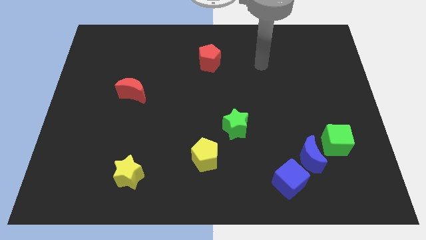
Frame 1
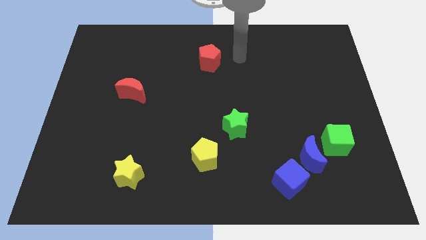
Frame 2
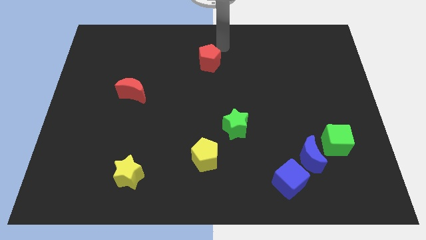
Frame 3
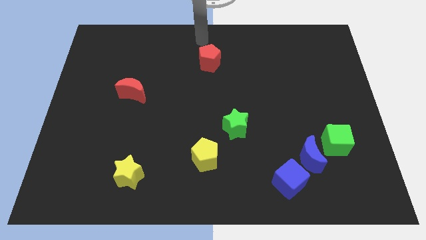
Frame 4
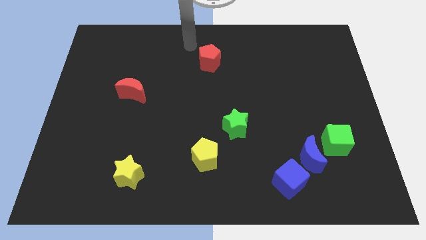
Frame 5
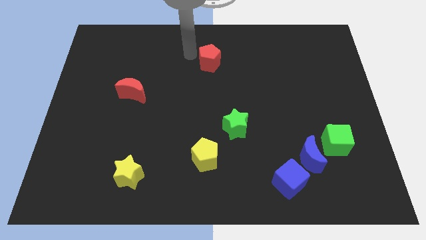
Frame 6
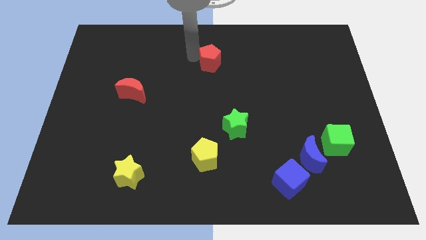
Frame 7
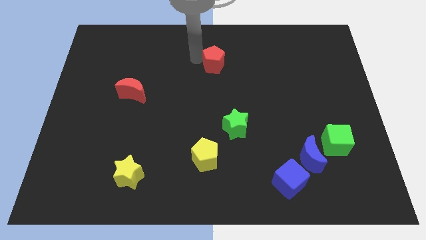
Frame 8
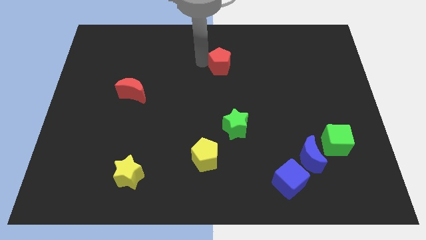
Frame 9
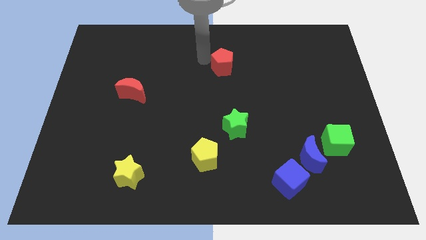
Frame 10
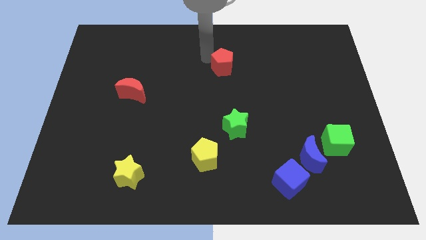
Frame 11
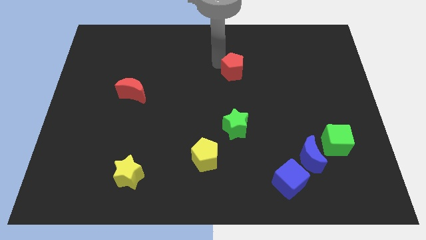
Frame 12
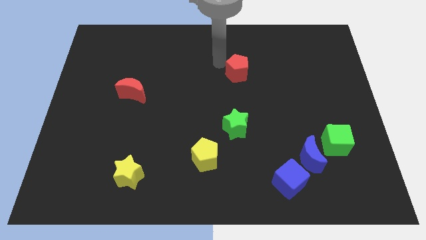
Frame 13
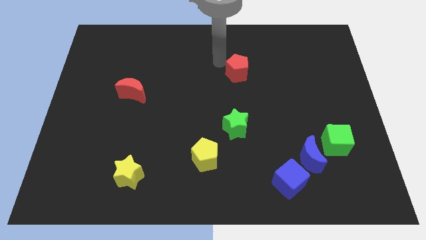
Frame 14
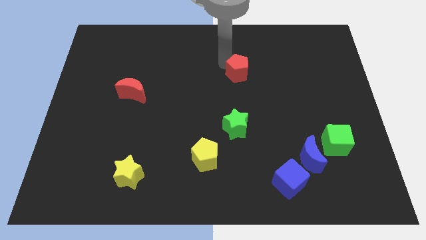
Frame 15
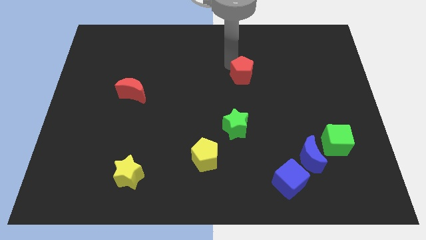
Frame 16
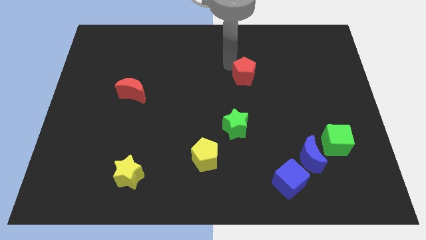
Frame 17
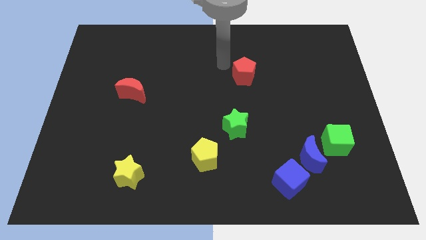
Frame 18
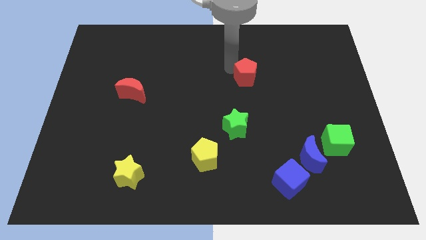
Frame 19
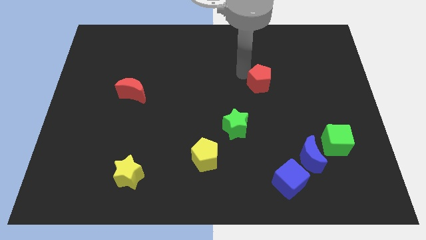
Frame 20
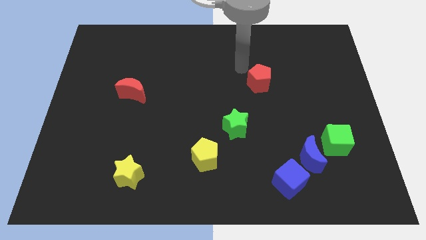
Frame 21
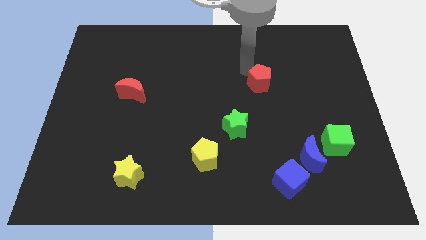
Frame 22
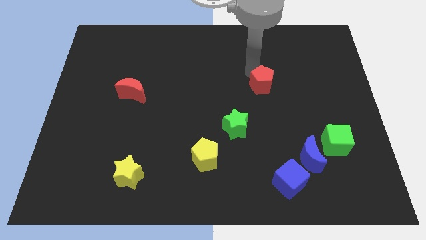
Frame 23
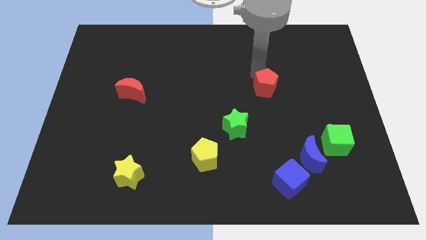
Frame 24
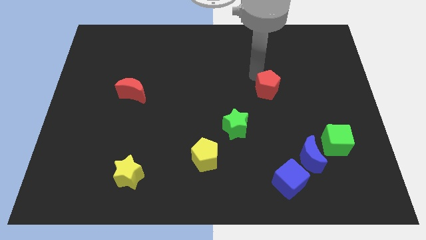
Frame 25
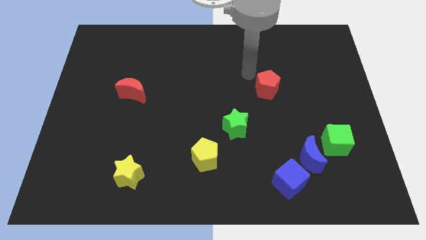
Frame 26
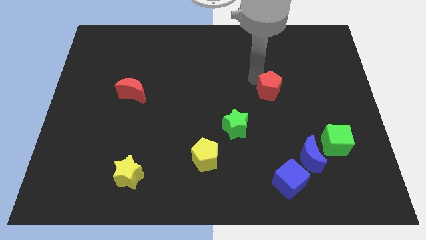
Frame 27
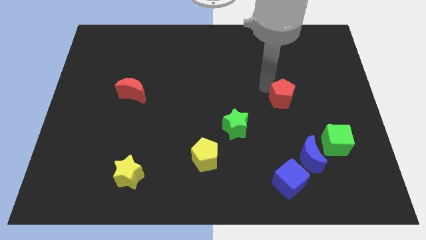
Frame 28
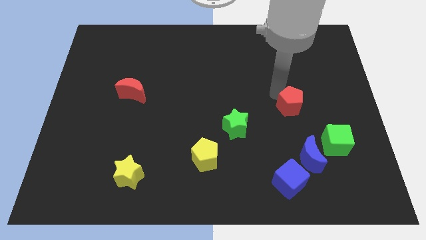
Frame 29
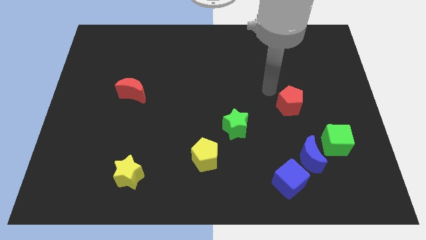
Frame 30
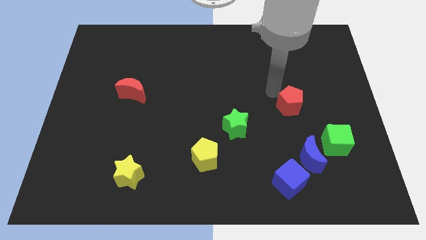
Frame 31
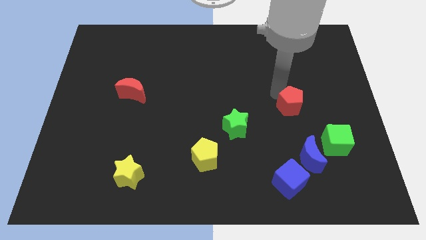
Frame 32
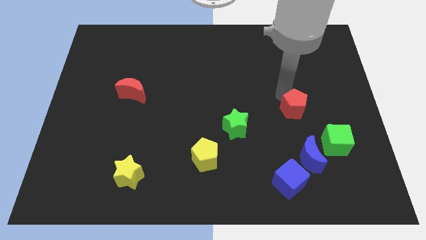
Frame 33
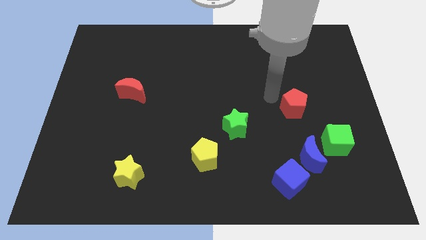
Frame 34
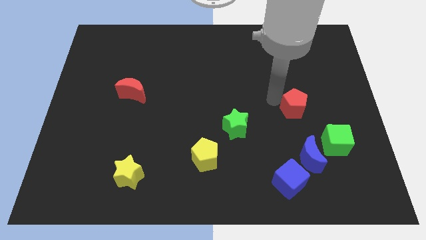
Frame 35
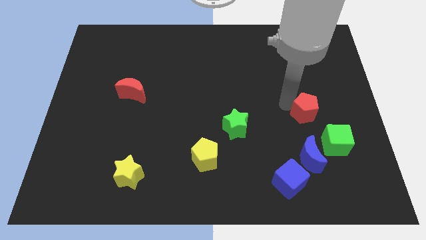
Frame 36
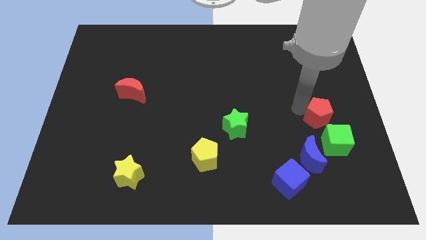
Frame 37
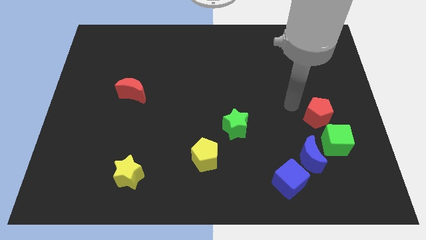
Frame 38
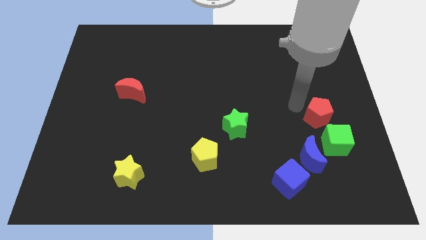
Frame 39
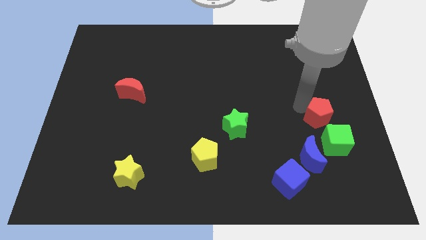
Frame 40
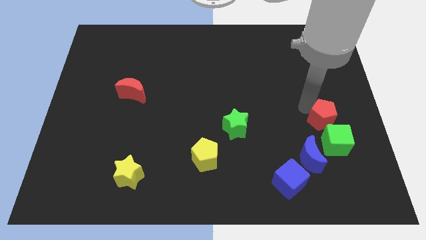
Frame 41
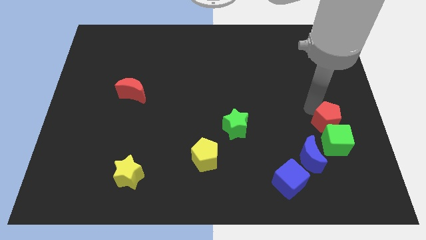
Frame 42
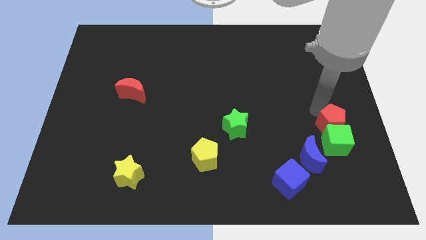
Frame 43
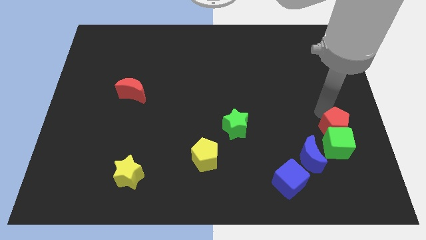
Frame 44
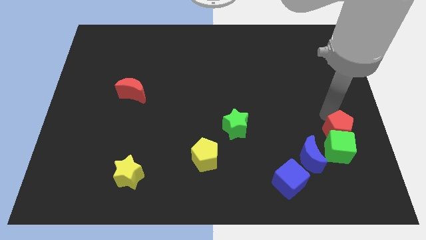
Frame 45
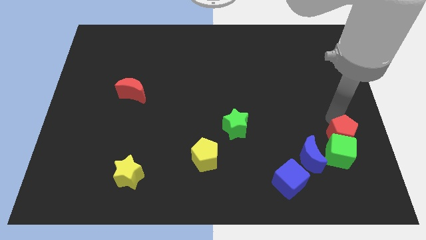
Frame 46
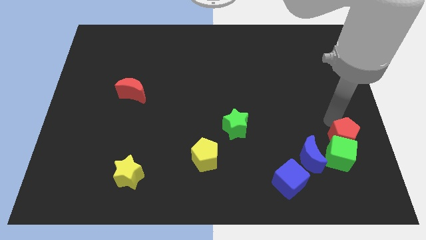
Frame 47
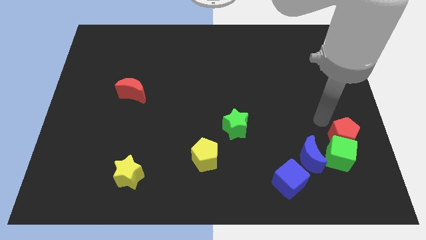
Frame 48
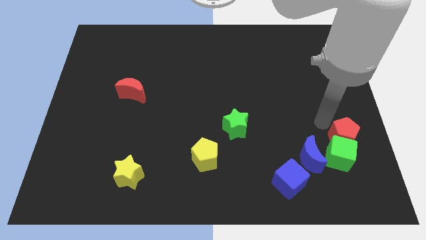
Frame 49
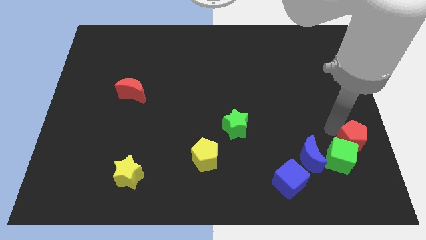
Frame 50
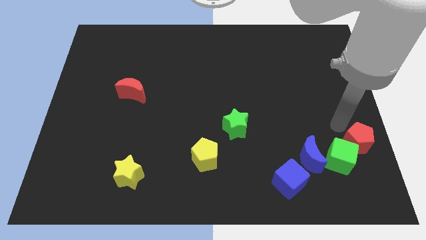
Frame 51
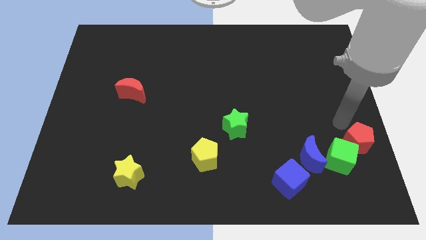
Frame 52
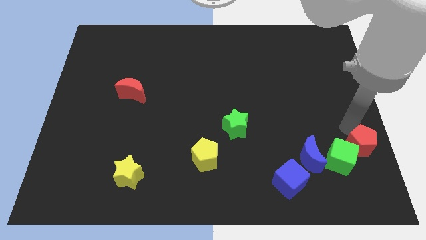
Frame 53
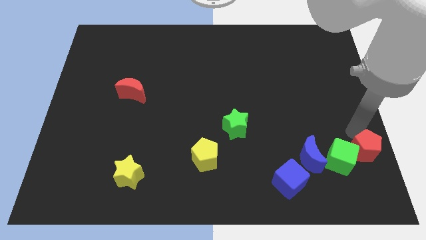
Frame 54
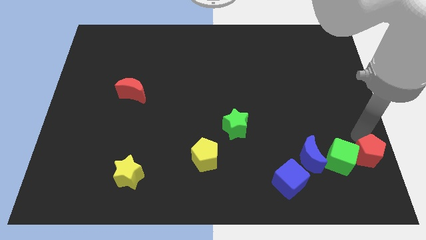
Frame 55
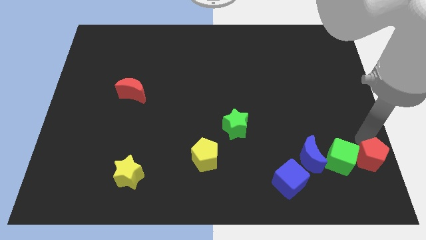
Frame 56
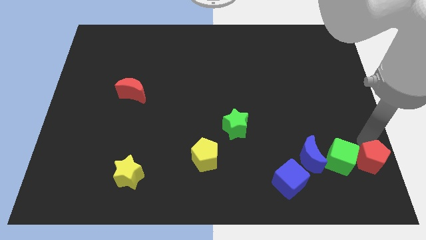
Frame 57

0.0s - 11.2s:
put the red pentagon to the bottom right corner

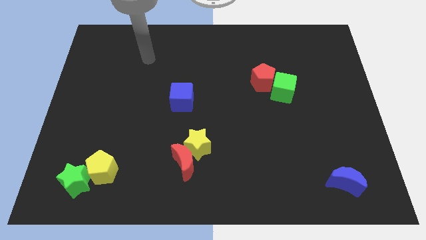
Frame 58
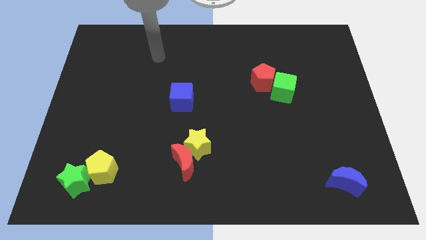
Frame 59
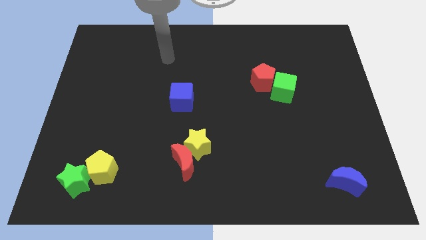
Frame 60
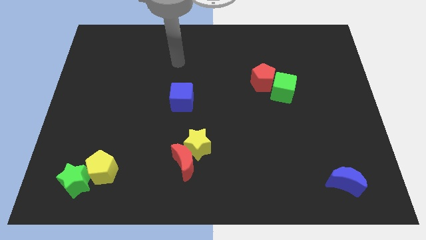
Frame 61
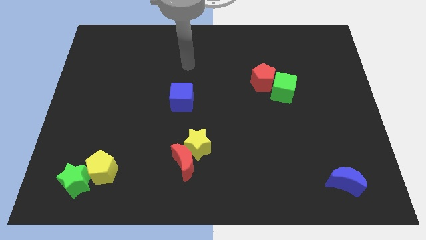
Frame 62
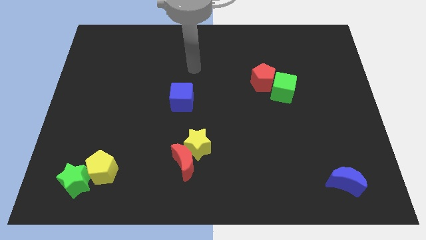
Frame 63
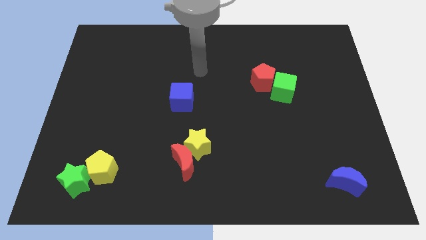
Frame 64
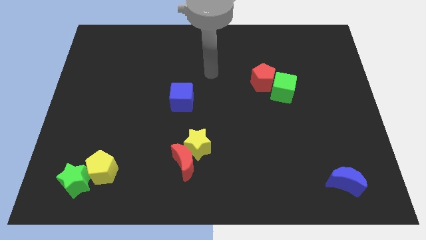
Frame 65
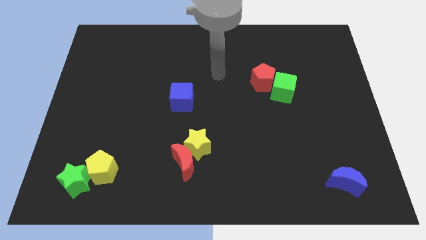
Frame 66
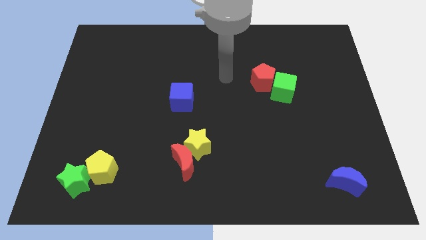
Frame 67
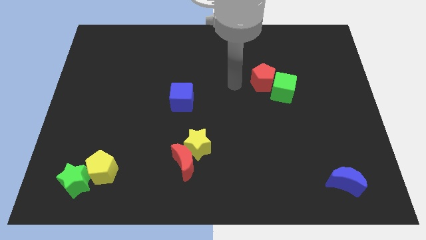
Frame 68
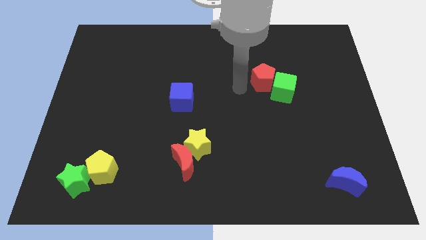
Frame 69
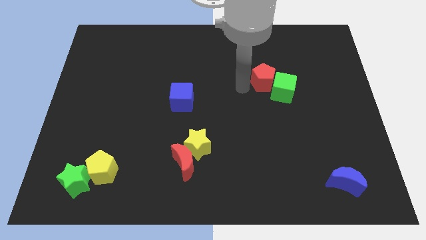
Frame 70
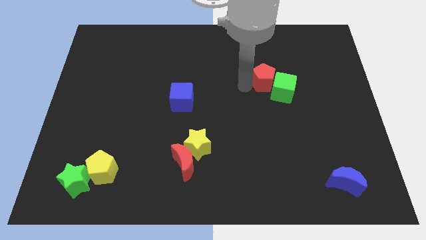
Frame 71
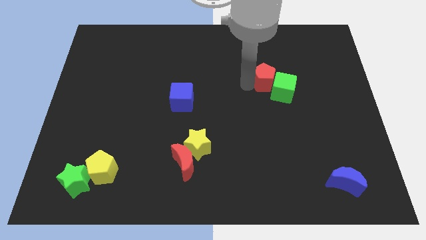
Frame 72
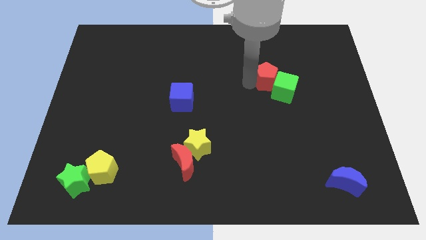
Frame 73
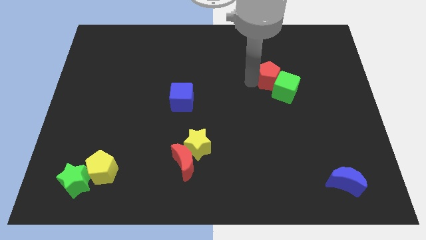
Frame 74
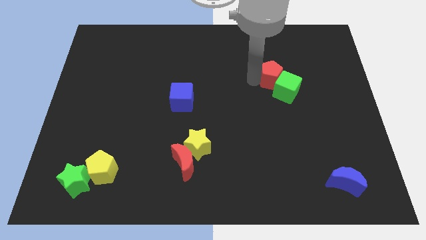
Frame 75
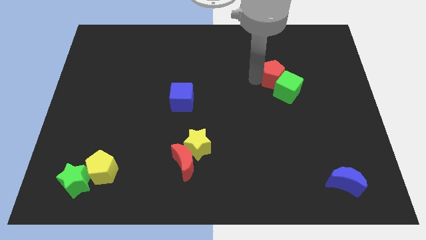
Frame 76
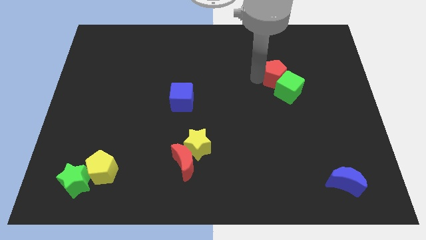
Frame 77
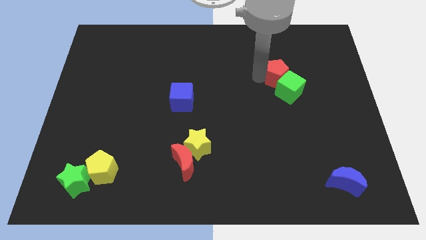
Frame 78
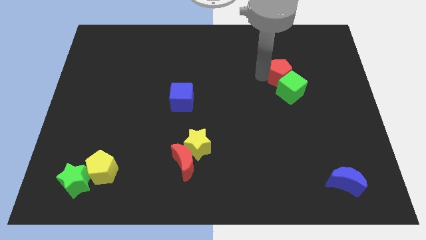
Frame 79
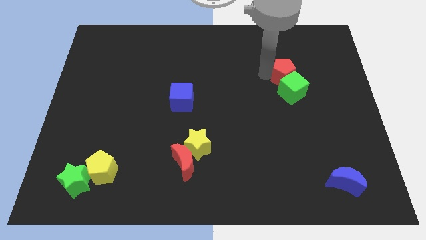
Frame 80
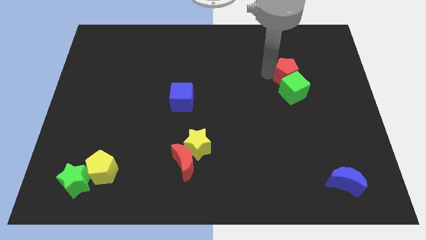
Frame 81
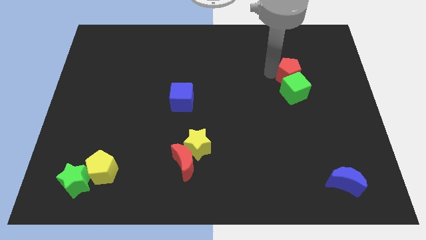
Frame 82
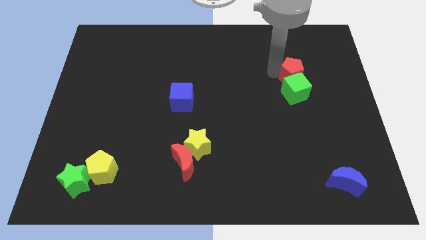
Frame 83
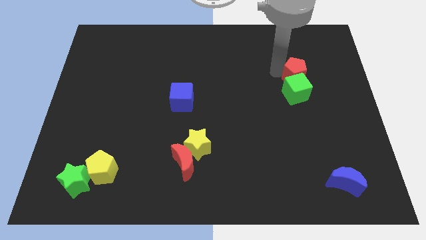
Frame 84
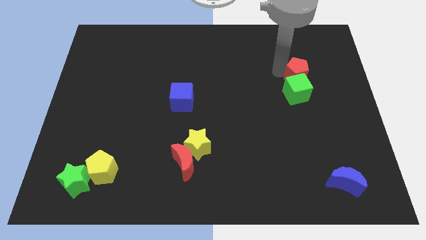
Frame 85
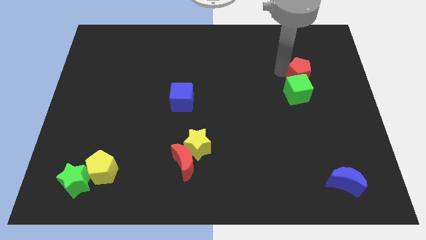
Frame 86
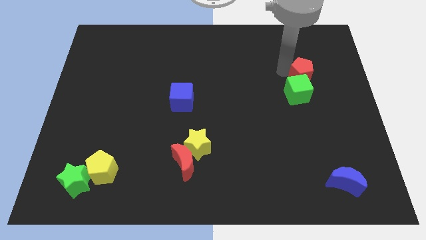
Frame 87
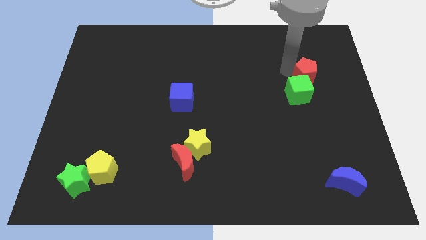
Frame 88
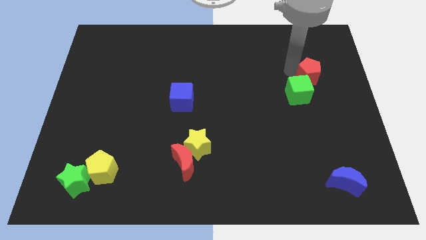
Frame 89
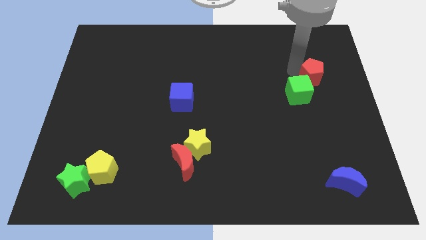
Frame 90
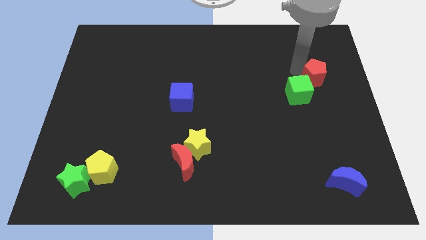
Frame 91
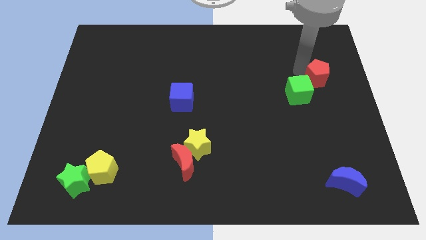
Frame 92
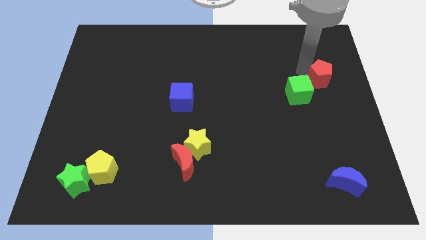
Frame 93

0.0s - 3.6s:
slide the red pentagon to the center right
